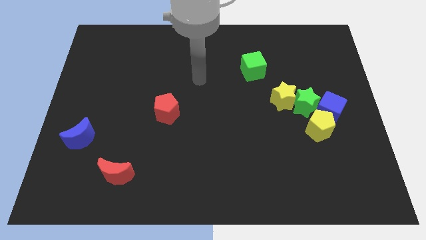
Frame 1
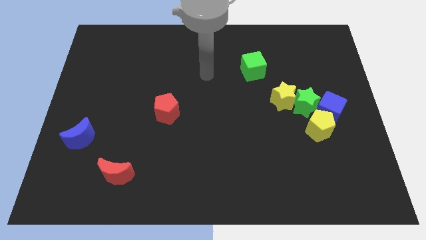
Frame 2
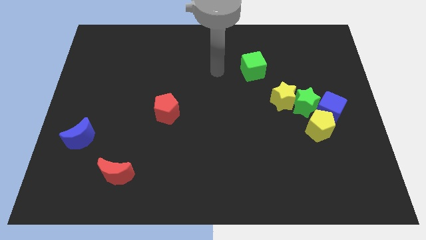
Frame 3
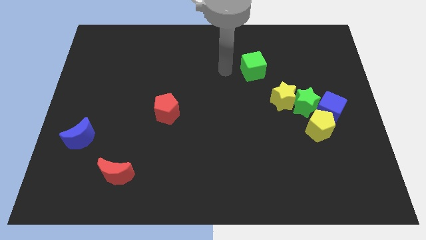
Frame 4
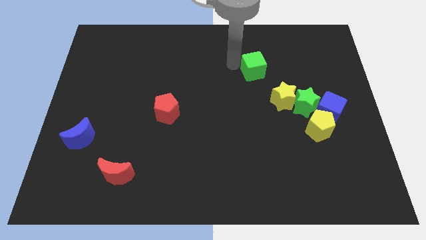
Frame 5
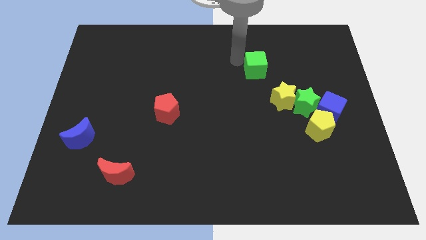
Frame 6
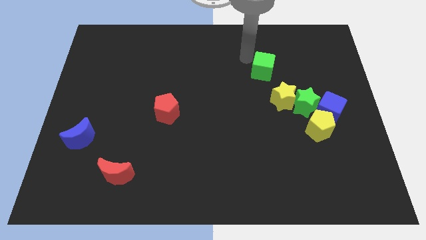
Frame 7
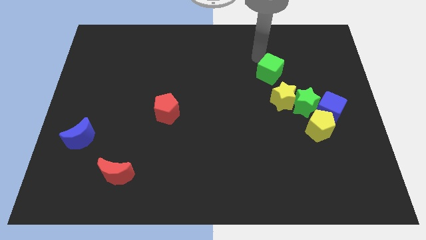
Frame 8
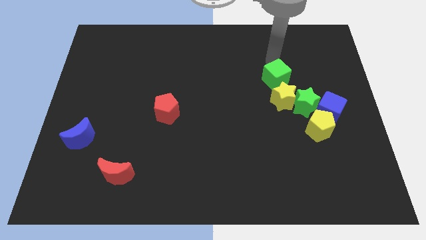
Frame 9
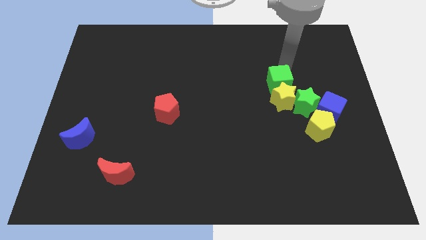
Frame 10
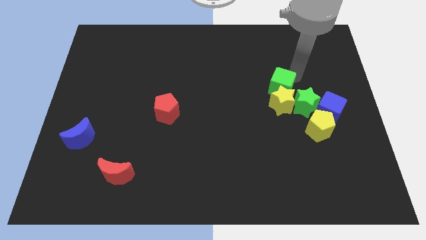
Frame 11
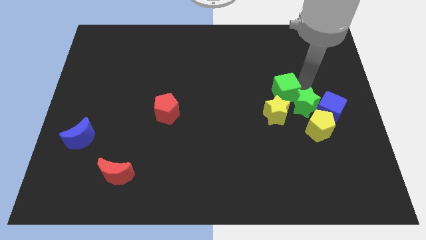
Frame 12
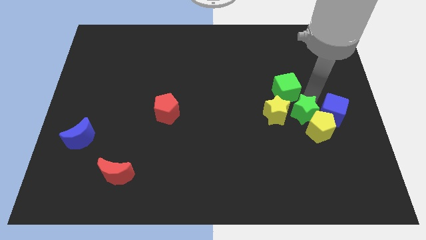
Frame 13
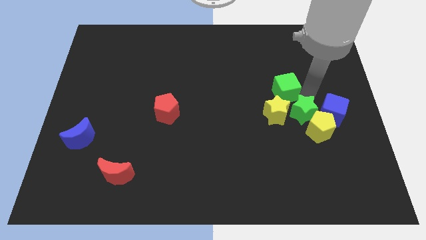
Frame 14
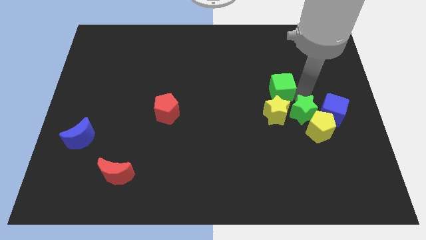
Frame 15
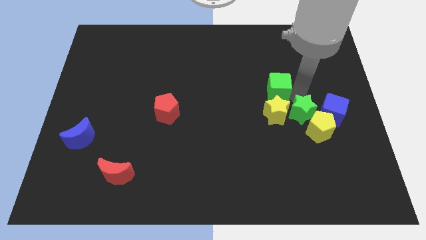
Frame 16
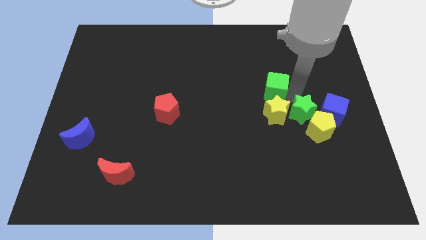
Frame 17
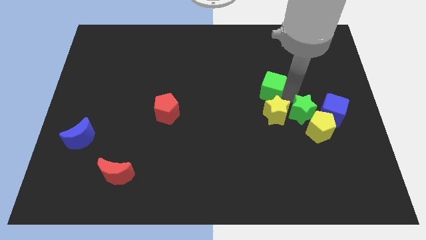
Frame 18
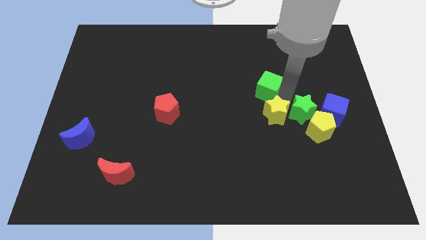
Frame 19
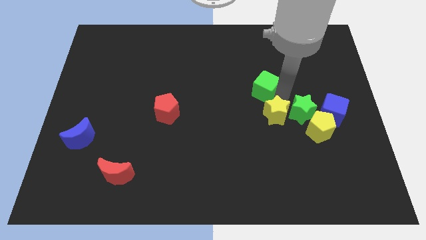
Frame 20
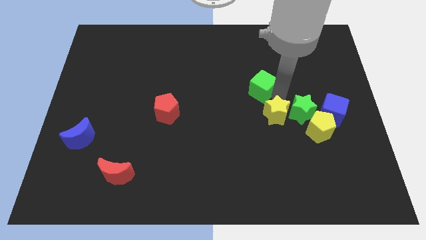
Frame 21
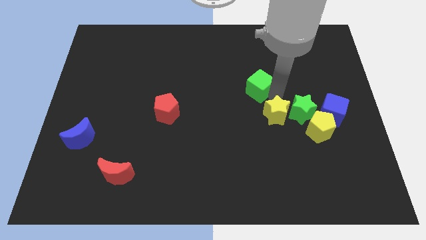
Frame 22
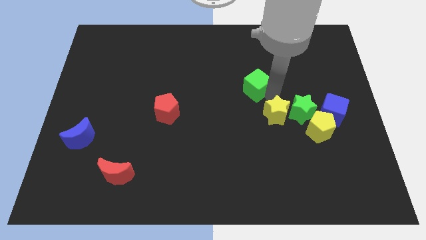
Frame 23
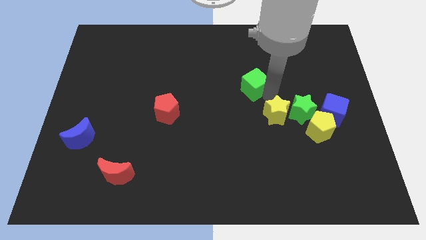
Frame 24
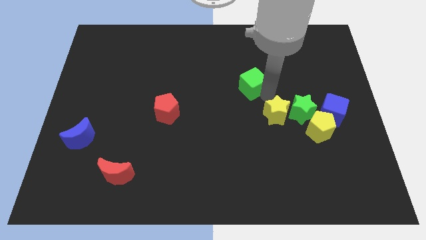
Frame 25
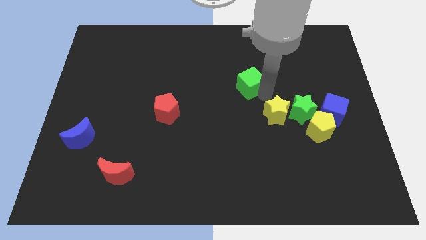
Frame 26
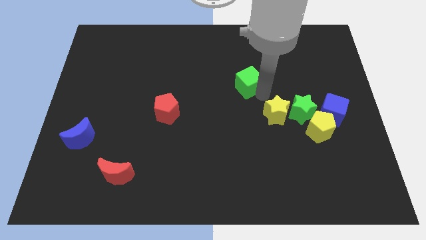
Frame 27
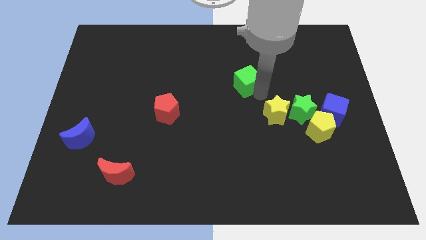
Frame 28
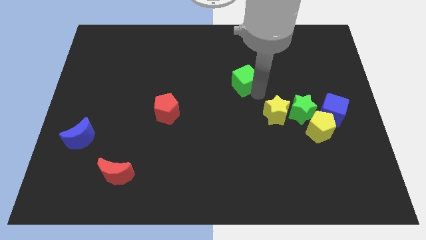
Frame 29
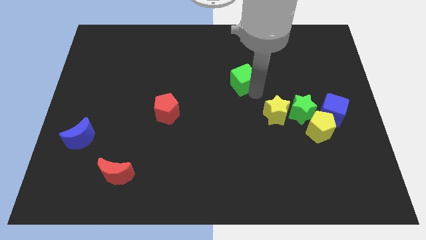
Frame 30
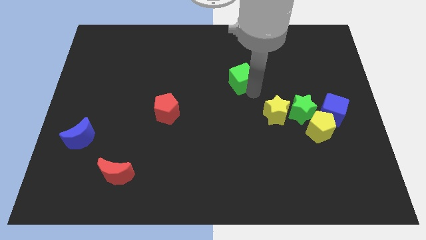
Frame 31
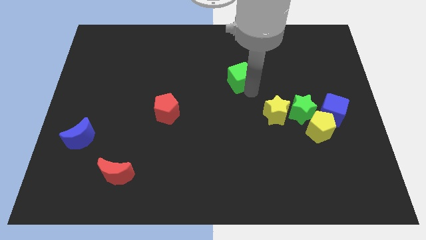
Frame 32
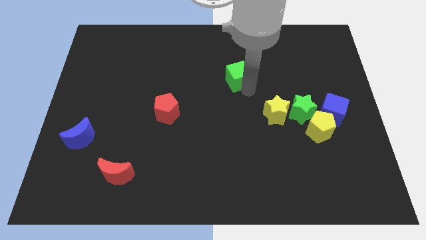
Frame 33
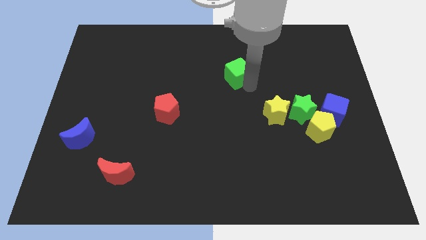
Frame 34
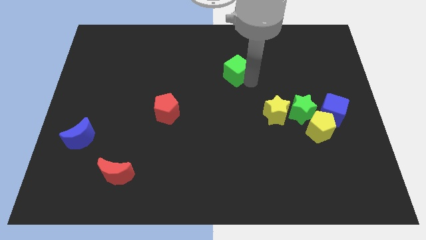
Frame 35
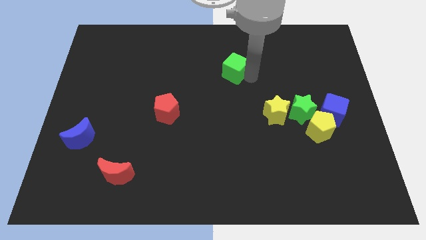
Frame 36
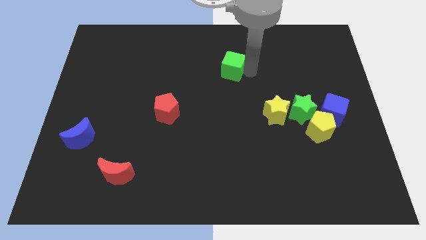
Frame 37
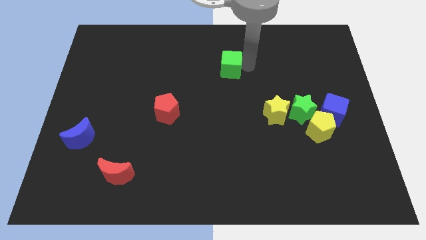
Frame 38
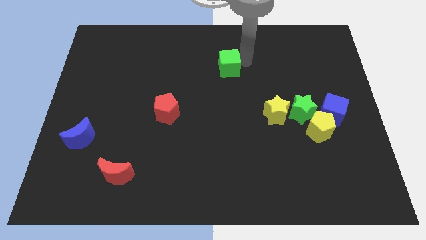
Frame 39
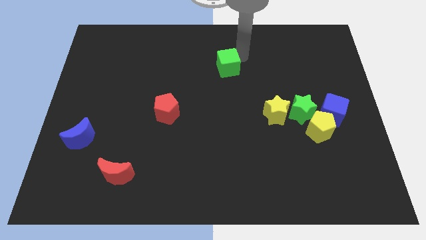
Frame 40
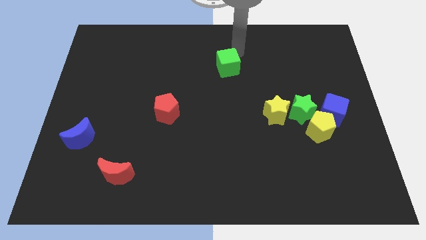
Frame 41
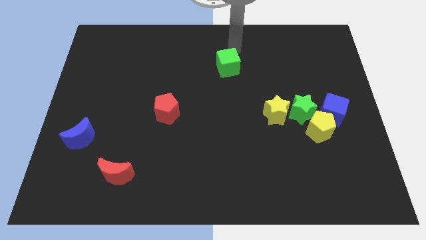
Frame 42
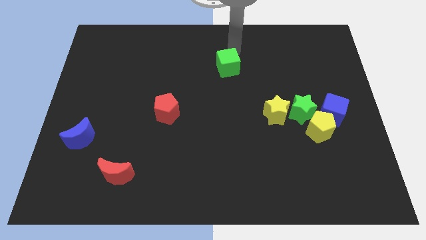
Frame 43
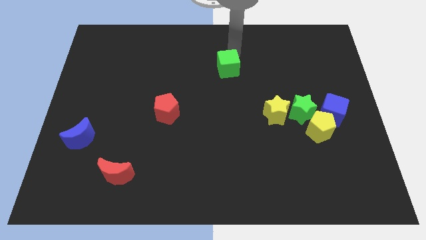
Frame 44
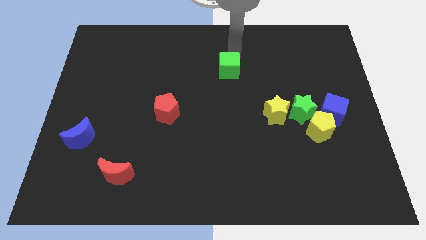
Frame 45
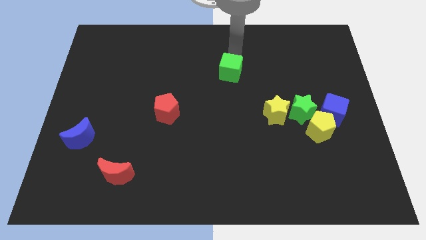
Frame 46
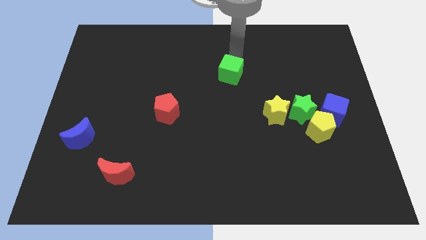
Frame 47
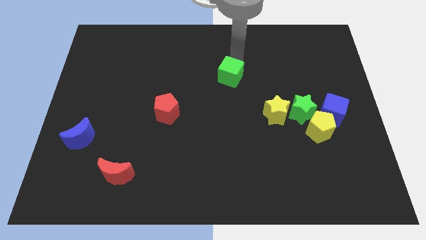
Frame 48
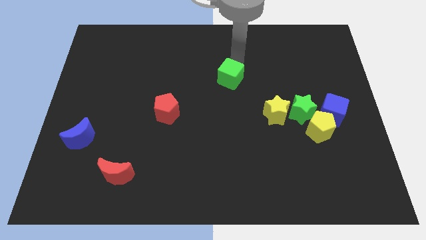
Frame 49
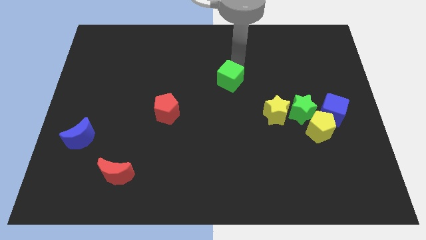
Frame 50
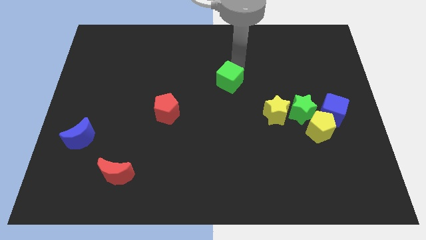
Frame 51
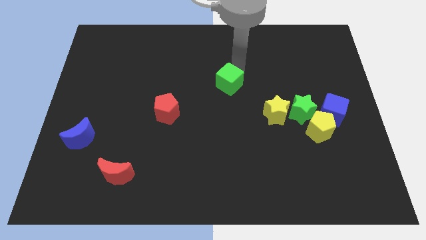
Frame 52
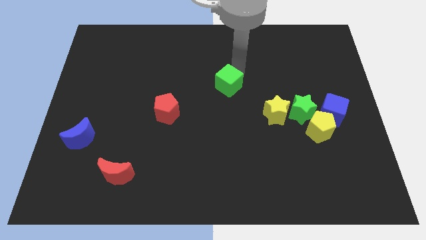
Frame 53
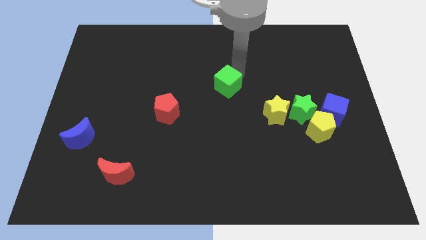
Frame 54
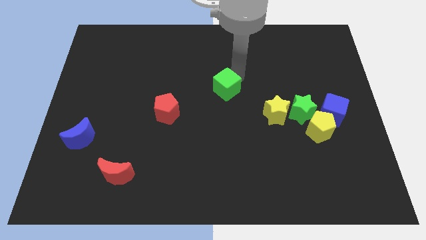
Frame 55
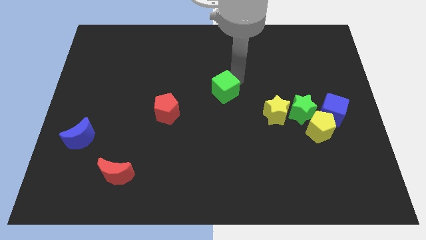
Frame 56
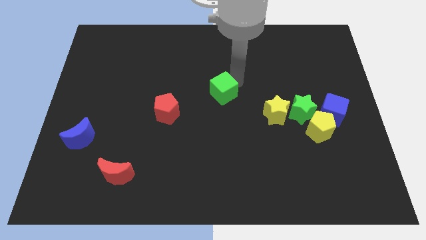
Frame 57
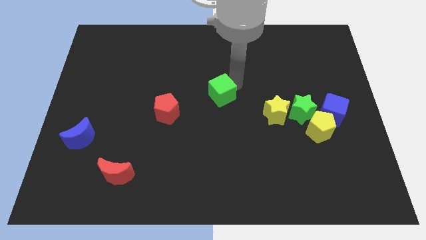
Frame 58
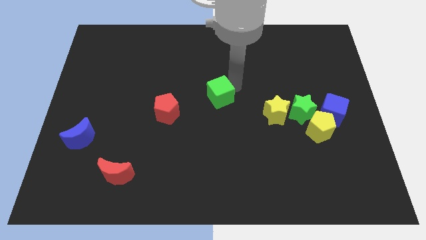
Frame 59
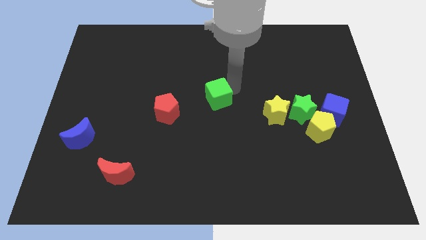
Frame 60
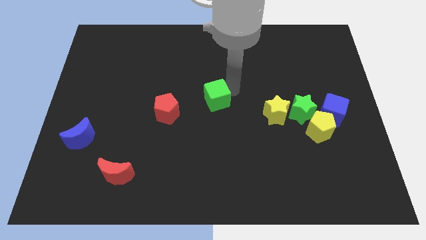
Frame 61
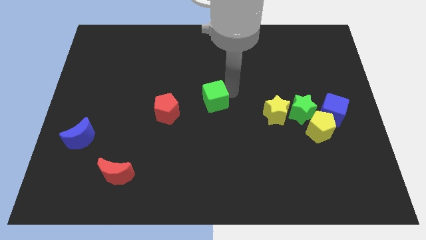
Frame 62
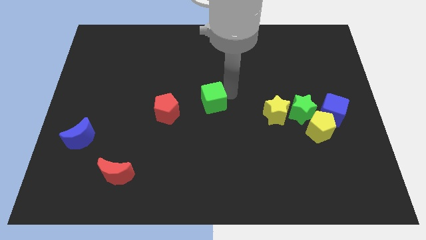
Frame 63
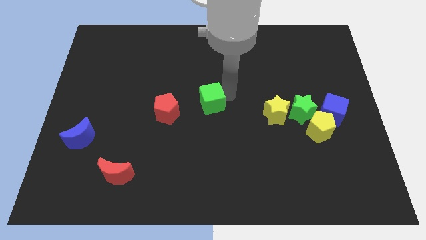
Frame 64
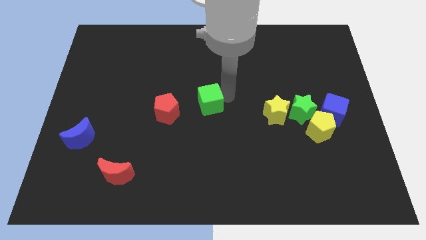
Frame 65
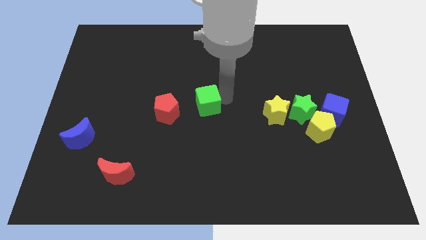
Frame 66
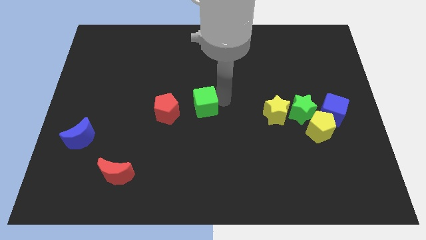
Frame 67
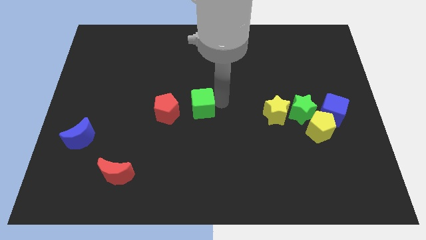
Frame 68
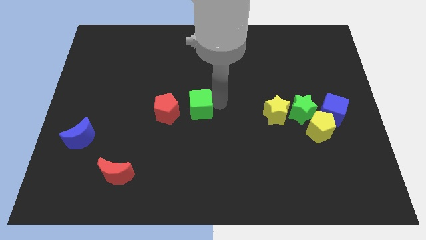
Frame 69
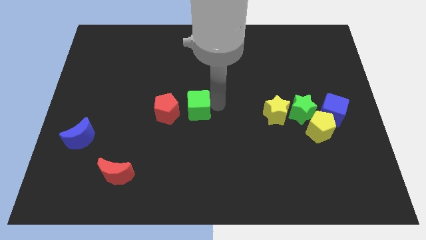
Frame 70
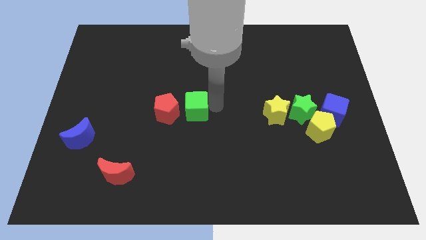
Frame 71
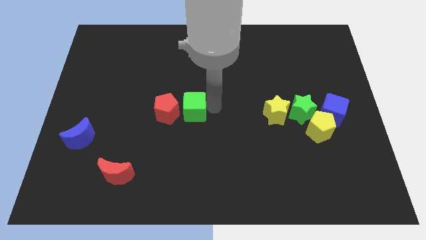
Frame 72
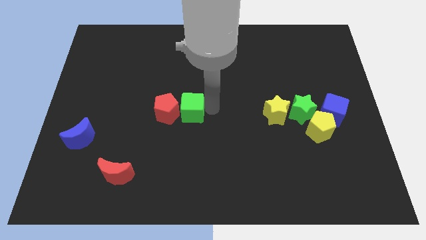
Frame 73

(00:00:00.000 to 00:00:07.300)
push the green cube close to the red pentagon

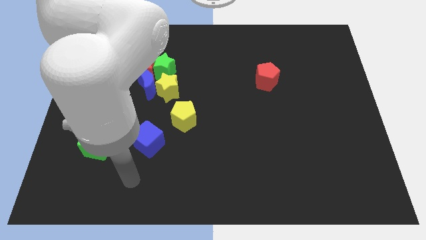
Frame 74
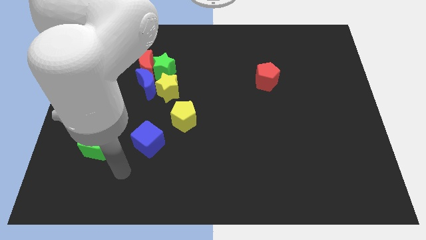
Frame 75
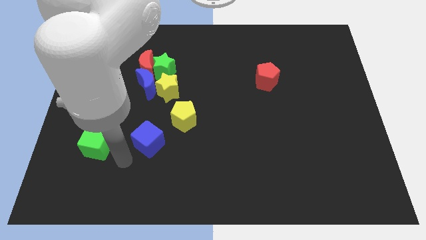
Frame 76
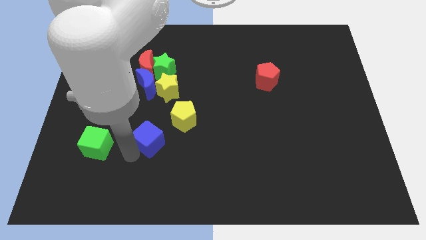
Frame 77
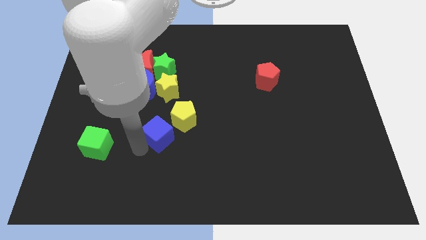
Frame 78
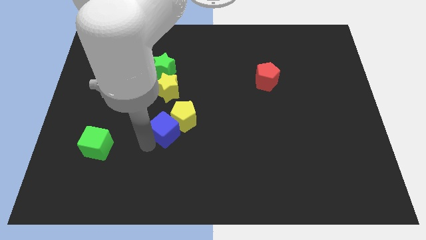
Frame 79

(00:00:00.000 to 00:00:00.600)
slide the blue cube close to the yellow pentagon
